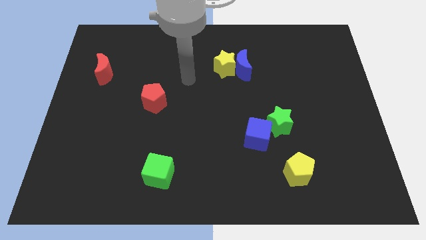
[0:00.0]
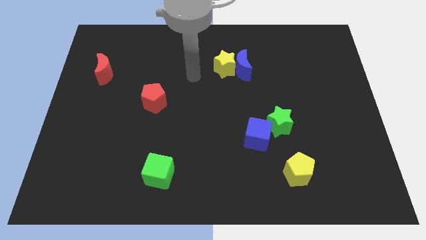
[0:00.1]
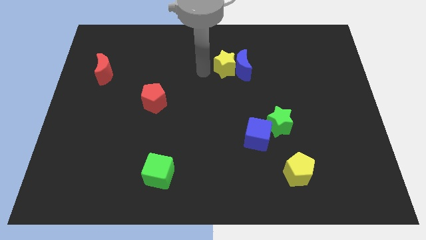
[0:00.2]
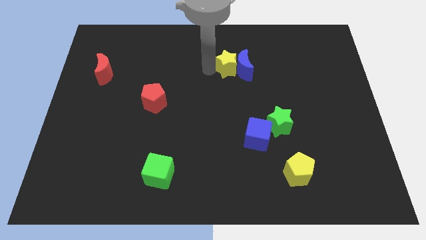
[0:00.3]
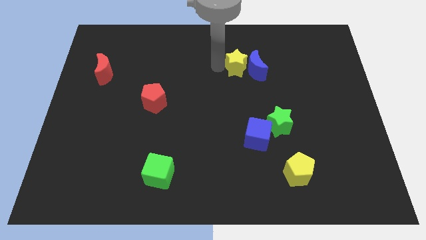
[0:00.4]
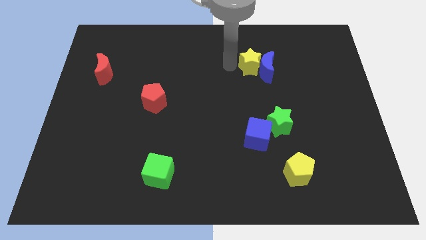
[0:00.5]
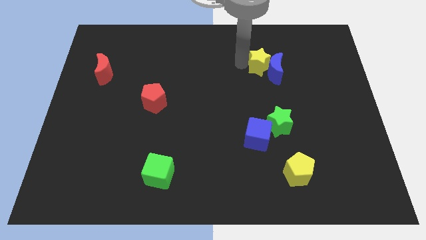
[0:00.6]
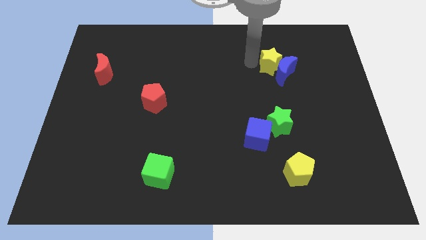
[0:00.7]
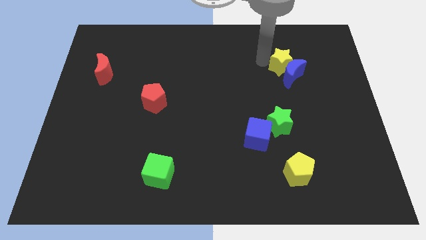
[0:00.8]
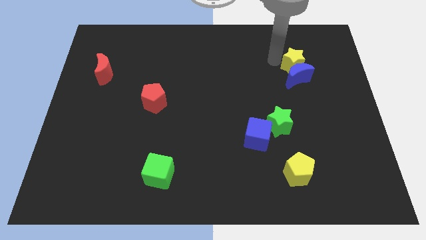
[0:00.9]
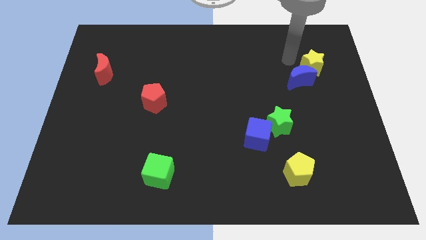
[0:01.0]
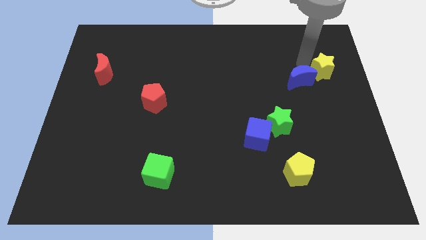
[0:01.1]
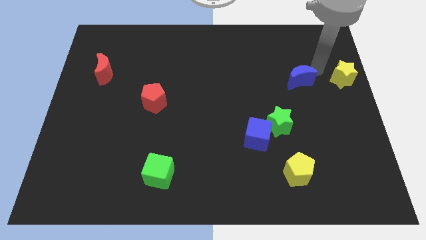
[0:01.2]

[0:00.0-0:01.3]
separate the blue moon from the yellow star

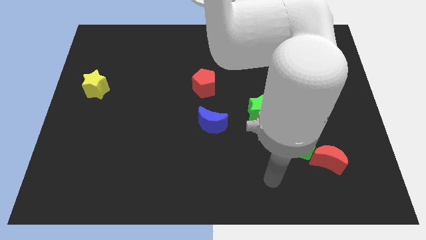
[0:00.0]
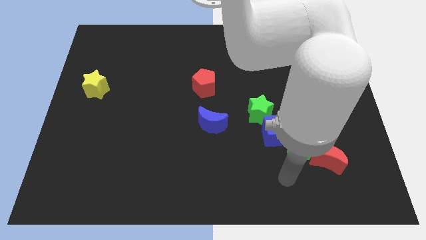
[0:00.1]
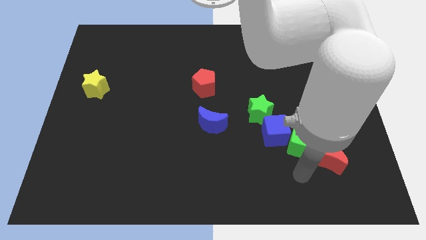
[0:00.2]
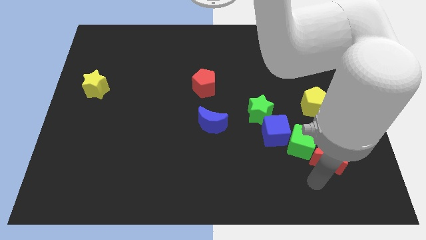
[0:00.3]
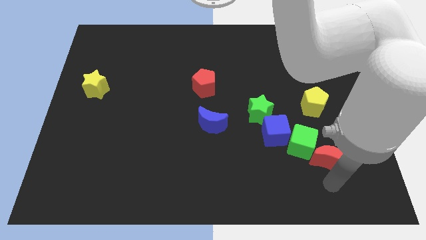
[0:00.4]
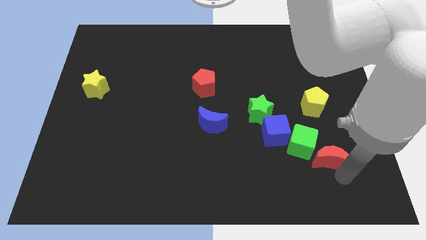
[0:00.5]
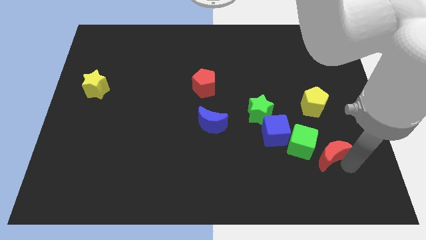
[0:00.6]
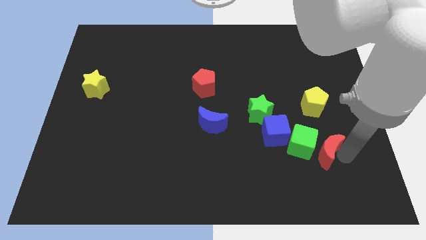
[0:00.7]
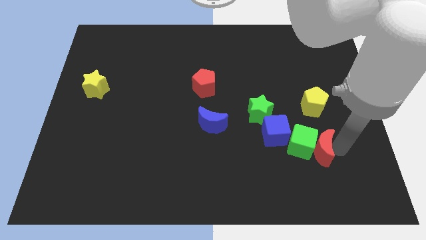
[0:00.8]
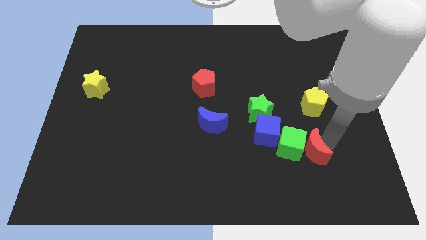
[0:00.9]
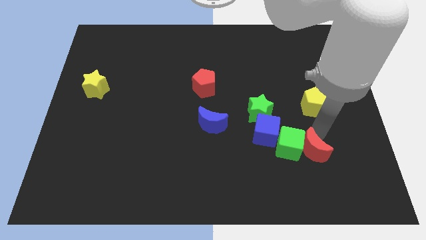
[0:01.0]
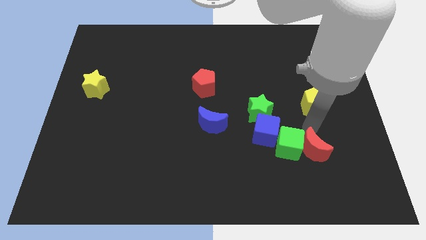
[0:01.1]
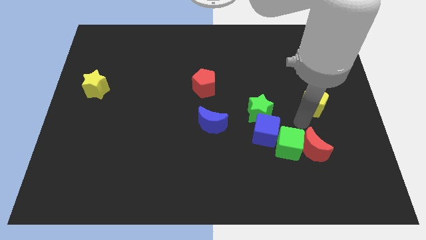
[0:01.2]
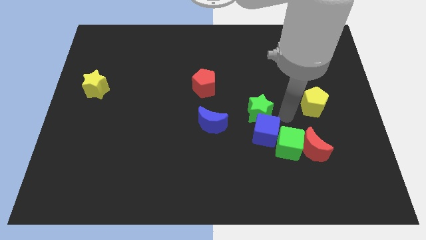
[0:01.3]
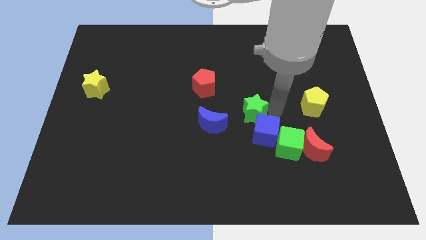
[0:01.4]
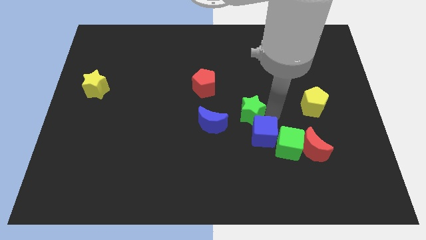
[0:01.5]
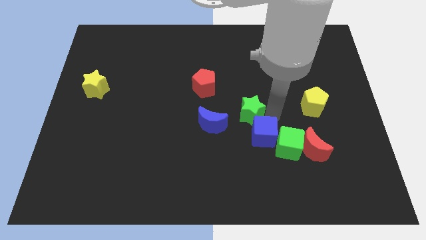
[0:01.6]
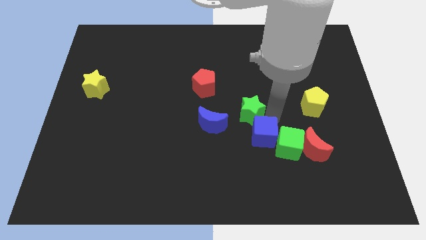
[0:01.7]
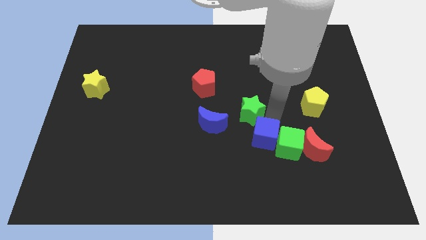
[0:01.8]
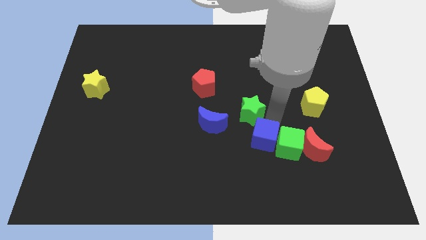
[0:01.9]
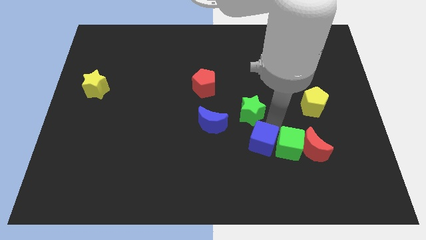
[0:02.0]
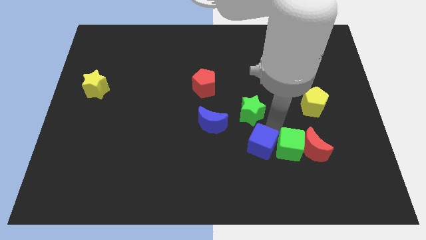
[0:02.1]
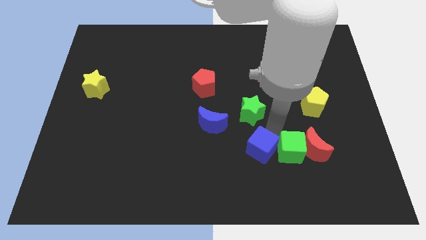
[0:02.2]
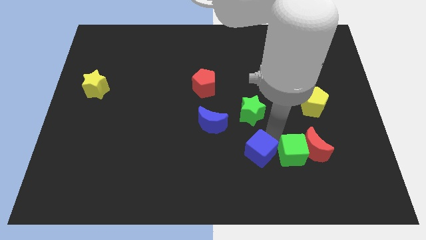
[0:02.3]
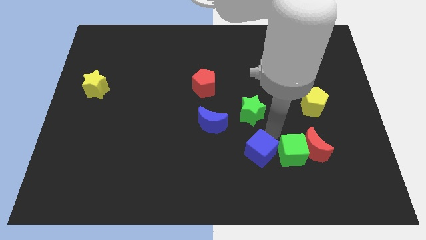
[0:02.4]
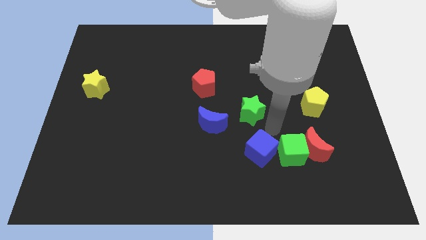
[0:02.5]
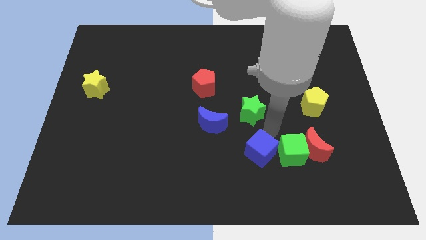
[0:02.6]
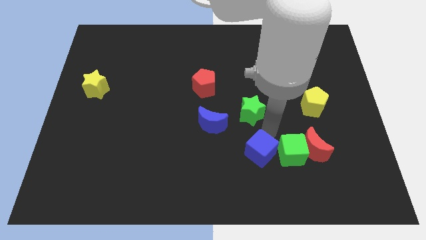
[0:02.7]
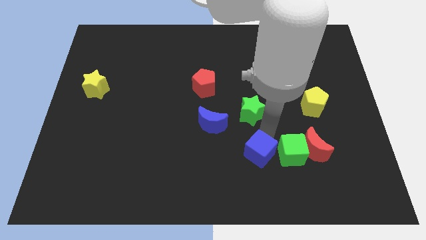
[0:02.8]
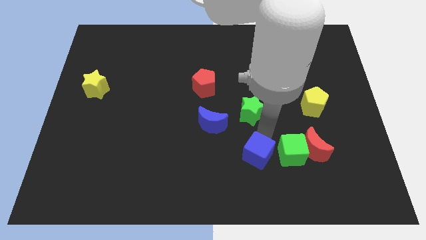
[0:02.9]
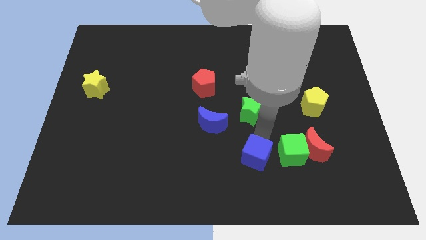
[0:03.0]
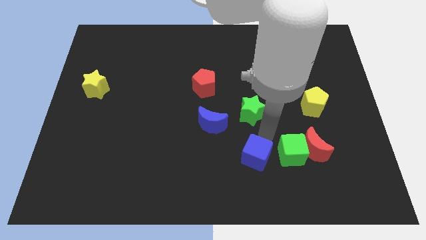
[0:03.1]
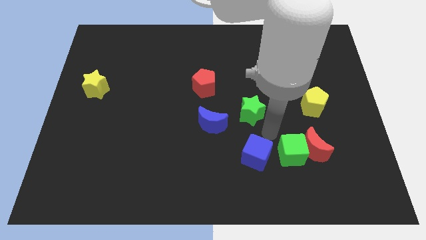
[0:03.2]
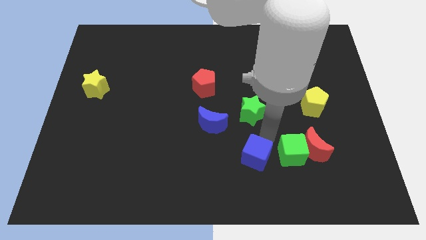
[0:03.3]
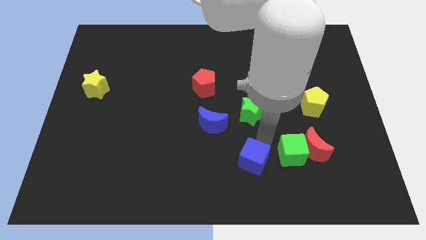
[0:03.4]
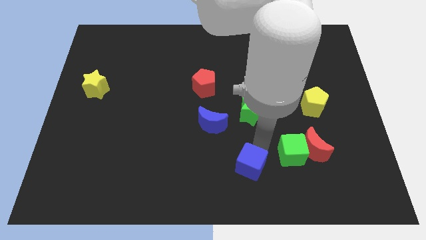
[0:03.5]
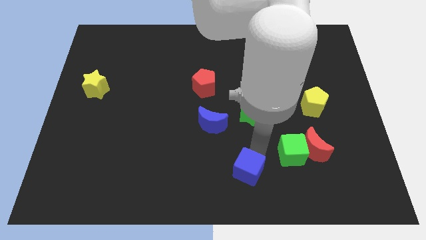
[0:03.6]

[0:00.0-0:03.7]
separate the blue cube from the green cube and green star

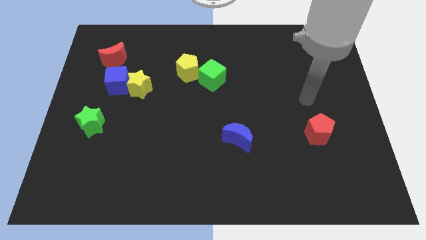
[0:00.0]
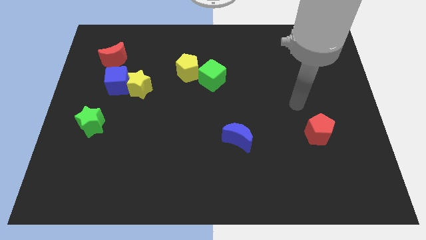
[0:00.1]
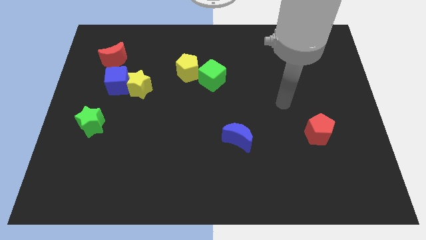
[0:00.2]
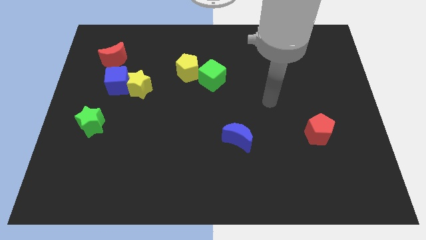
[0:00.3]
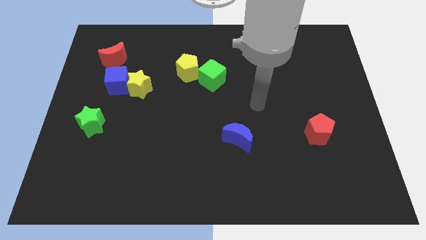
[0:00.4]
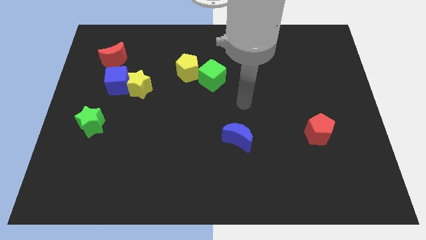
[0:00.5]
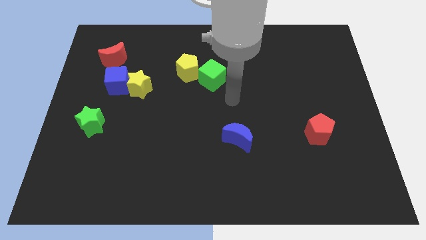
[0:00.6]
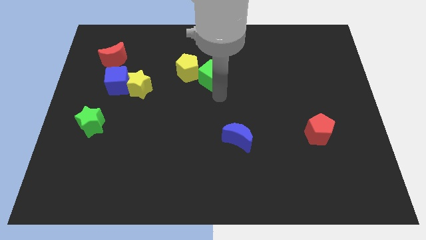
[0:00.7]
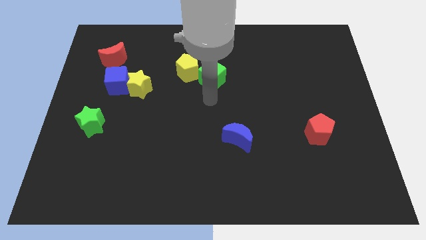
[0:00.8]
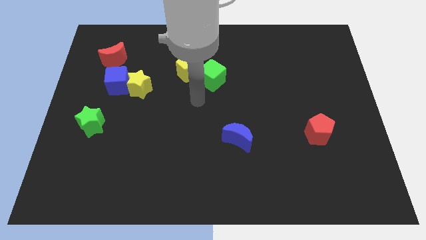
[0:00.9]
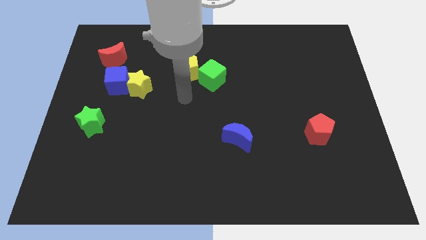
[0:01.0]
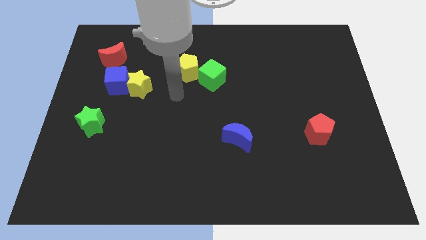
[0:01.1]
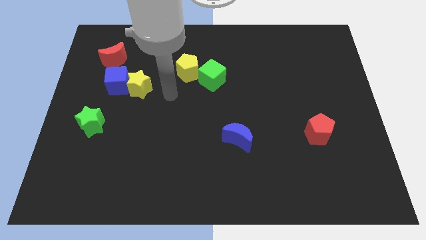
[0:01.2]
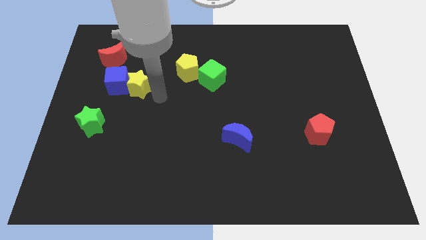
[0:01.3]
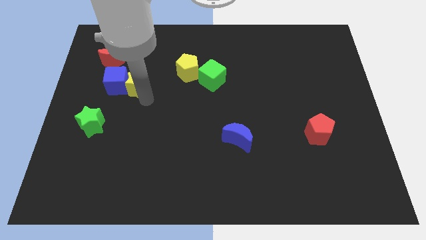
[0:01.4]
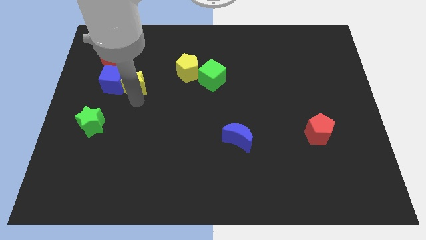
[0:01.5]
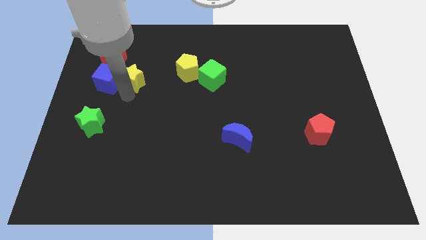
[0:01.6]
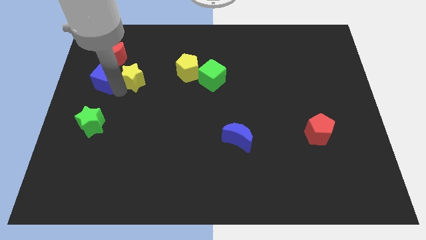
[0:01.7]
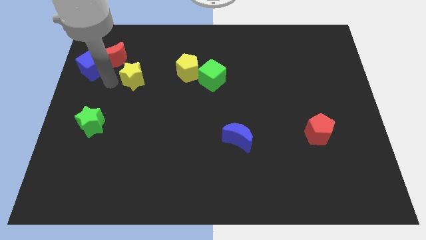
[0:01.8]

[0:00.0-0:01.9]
separate the yellow star from the blue cube

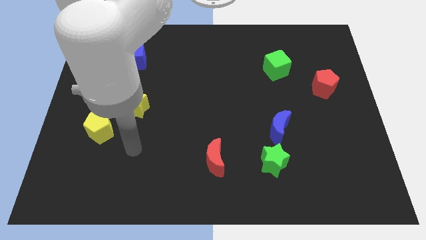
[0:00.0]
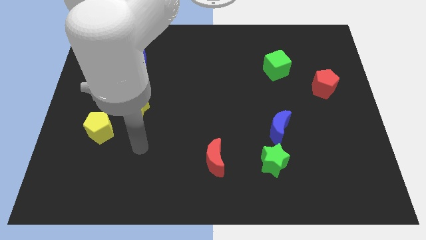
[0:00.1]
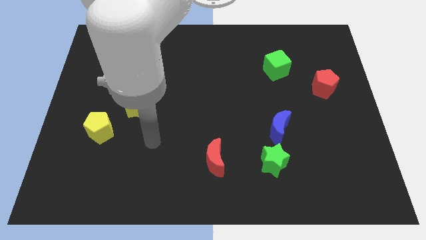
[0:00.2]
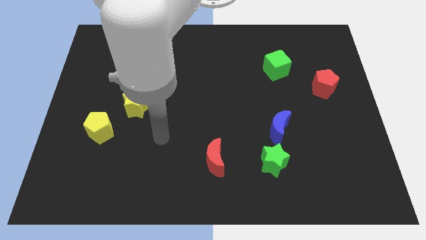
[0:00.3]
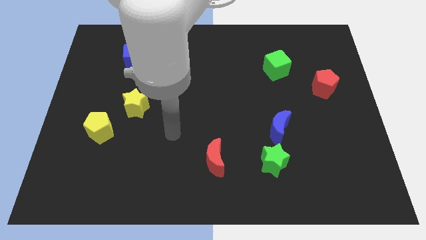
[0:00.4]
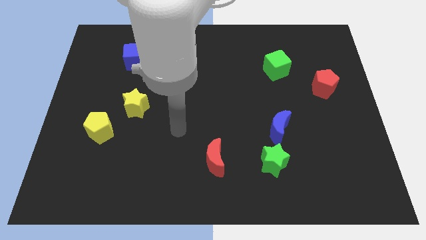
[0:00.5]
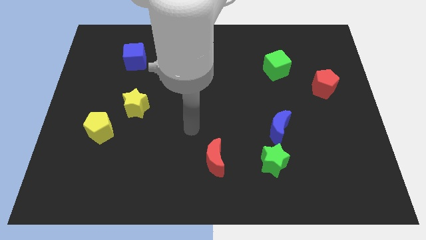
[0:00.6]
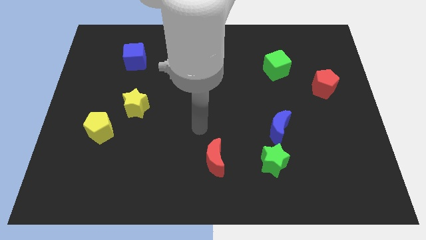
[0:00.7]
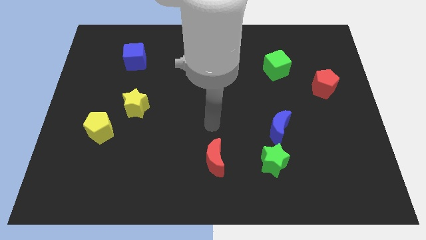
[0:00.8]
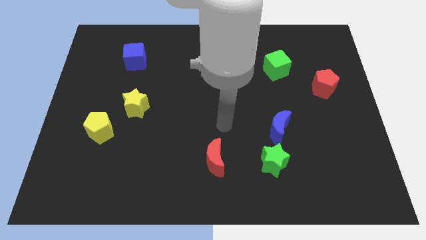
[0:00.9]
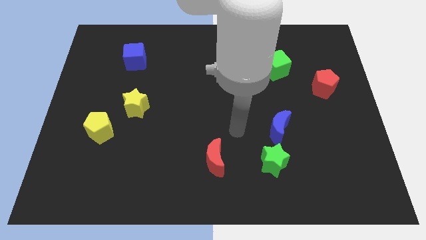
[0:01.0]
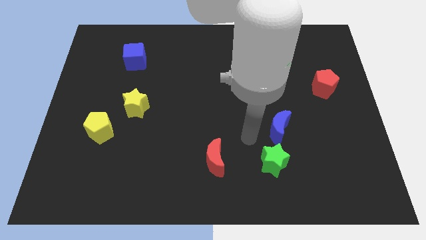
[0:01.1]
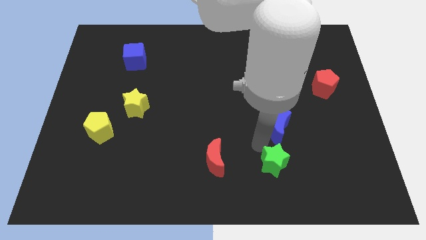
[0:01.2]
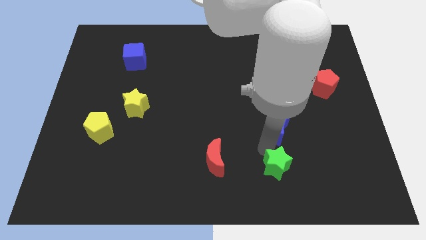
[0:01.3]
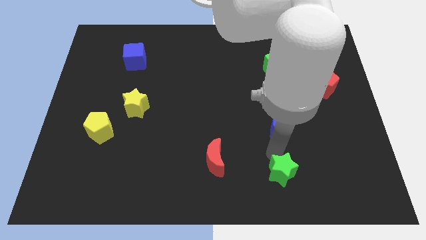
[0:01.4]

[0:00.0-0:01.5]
pull the blue moon apart from the green star

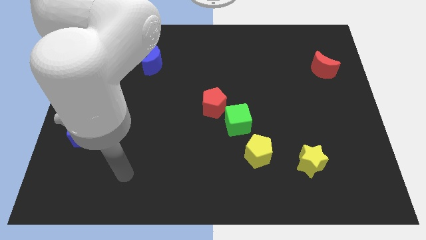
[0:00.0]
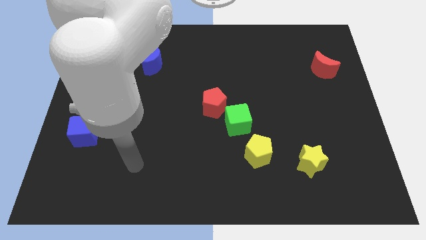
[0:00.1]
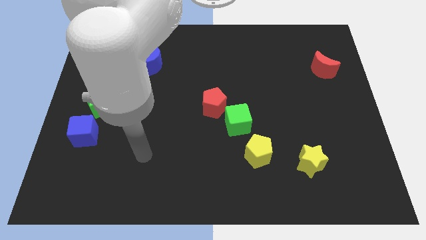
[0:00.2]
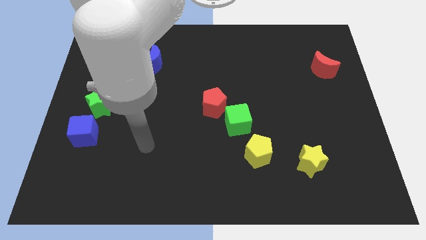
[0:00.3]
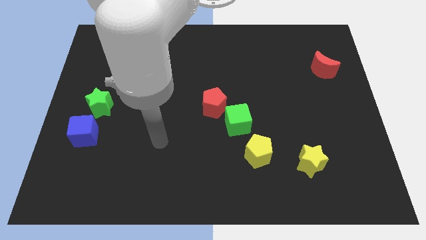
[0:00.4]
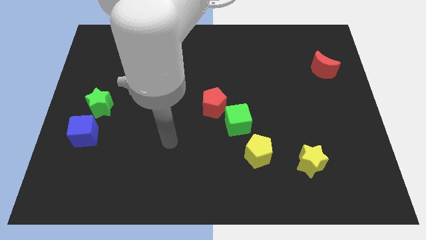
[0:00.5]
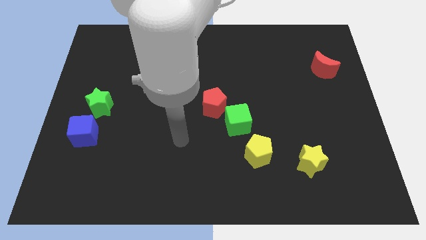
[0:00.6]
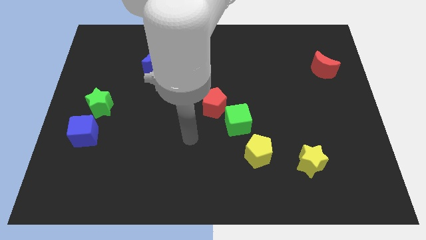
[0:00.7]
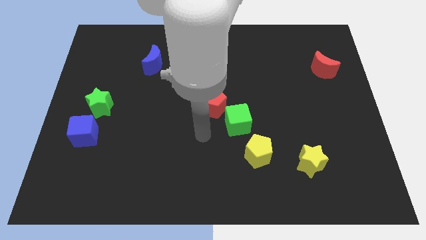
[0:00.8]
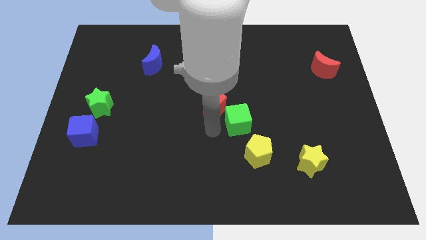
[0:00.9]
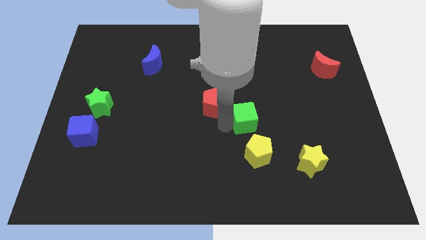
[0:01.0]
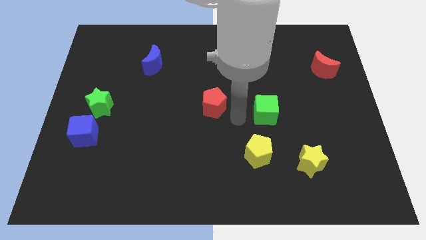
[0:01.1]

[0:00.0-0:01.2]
pull the red pentagon apart from the green cube
